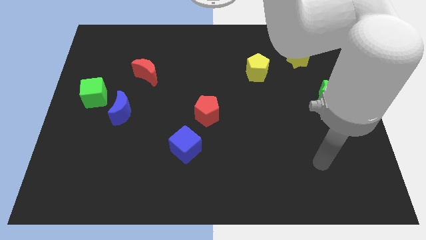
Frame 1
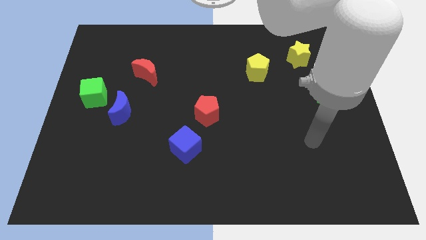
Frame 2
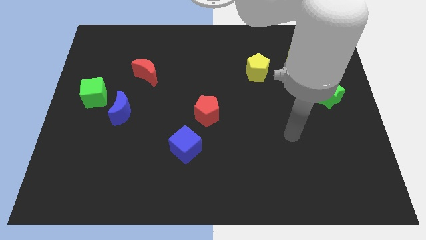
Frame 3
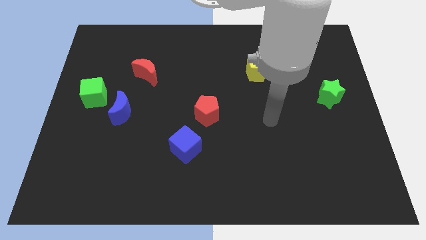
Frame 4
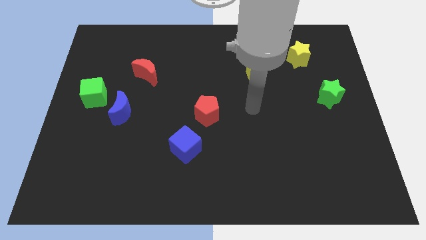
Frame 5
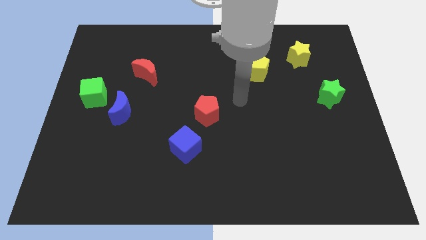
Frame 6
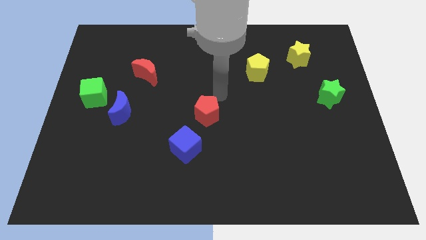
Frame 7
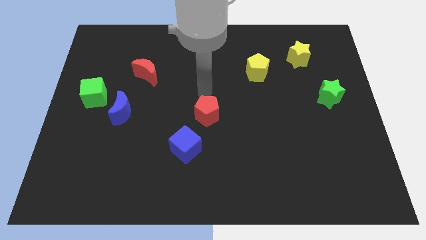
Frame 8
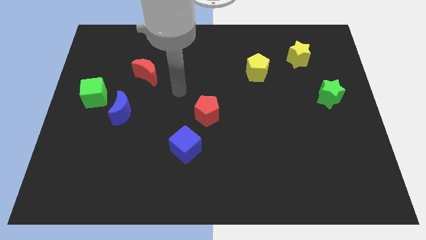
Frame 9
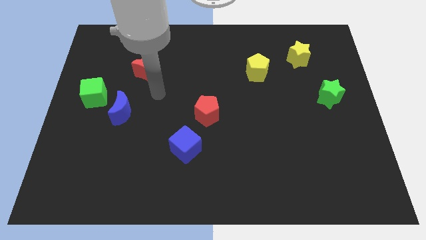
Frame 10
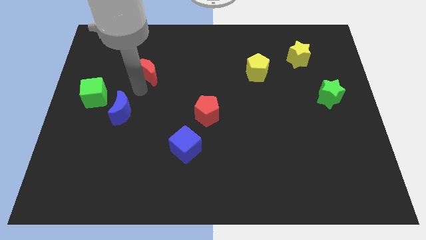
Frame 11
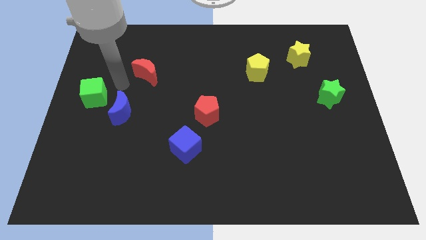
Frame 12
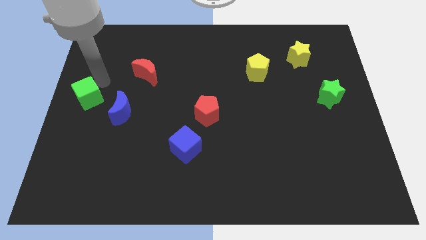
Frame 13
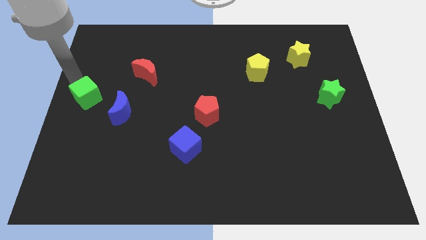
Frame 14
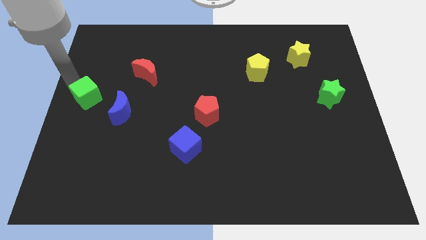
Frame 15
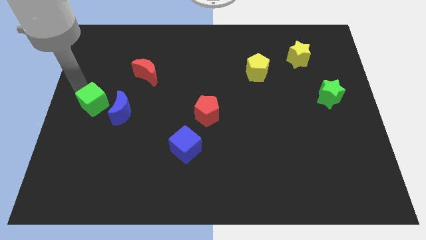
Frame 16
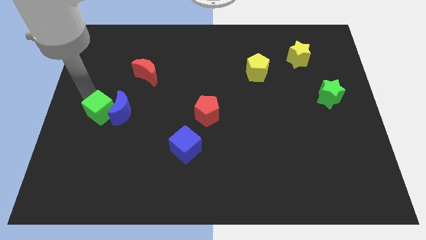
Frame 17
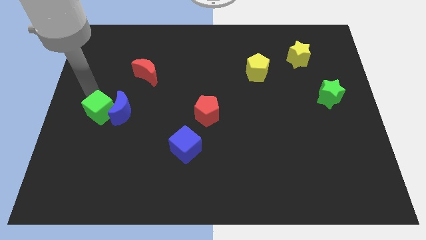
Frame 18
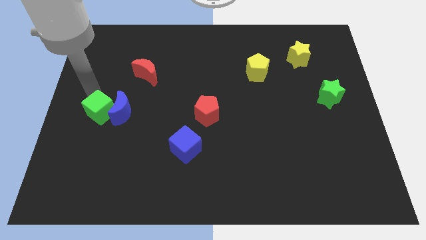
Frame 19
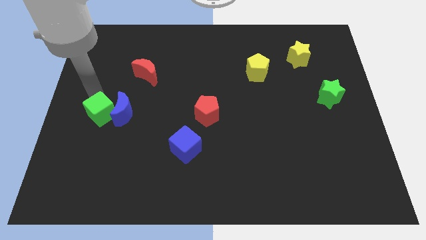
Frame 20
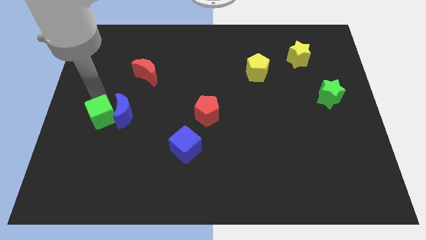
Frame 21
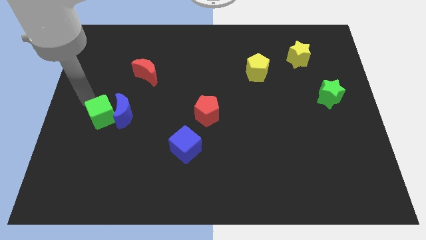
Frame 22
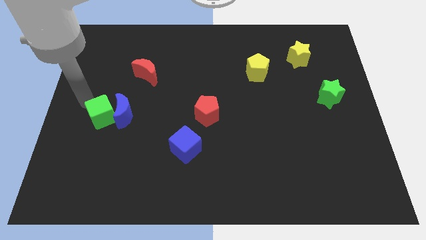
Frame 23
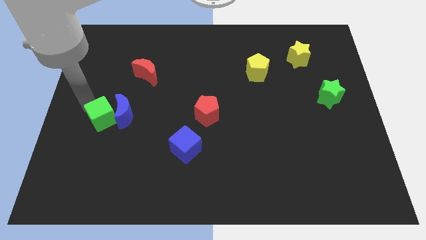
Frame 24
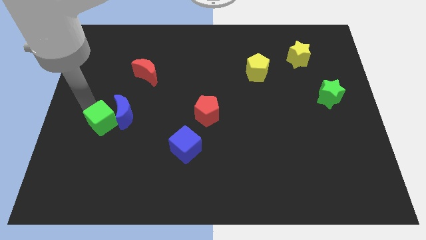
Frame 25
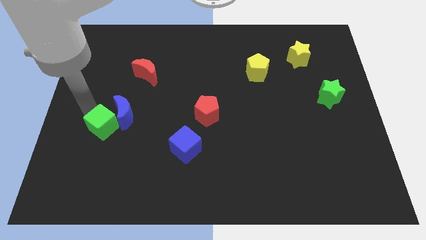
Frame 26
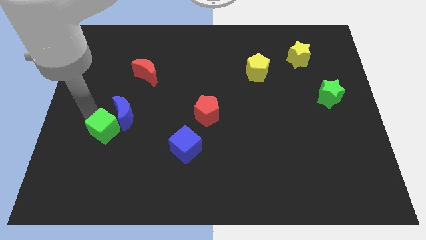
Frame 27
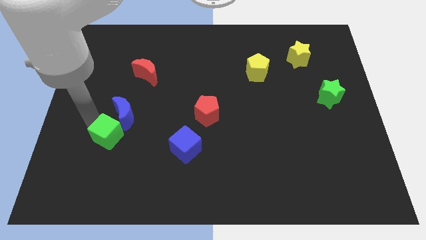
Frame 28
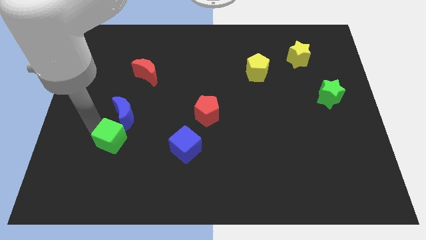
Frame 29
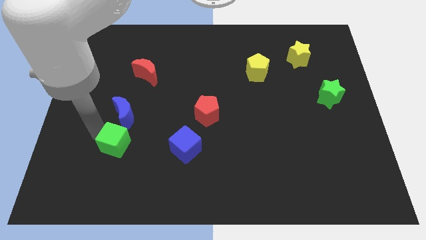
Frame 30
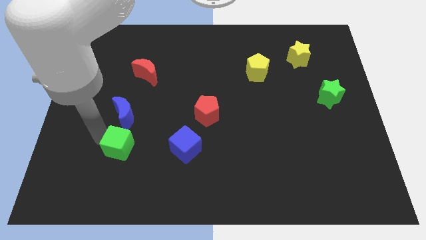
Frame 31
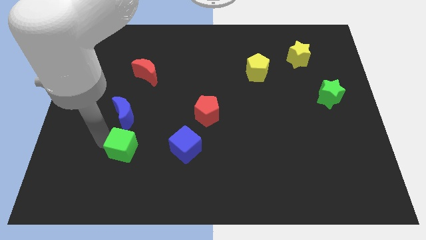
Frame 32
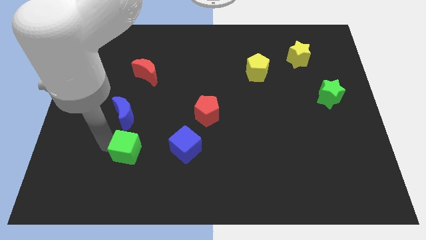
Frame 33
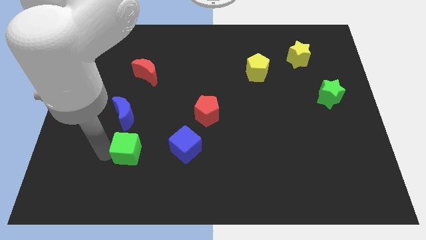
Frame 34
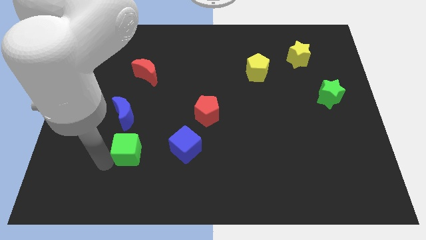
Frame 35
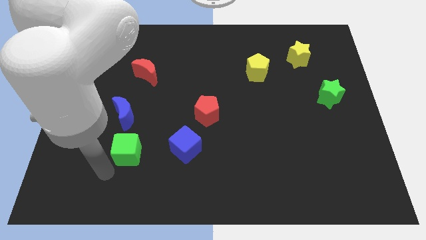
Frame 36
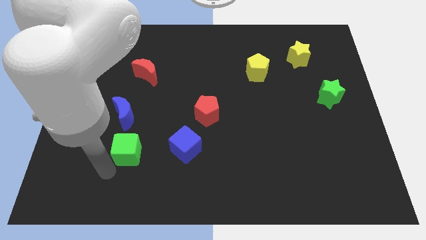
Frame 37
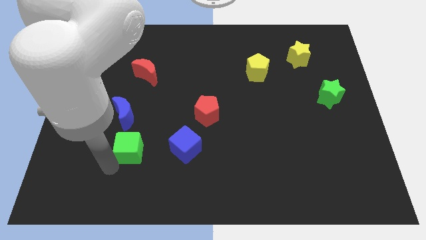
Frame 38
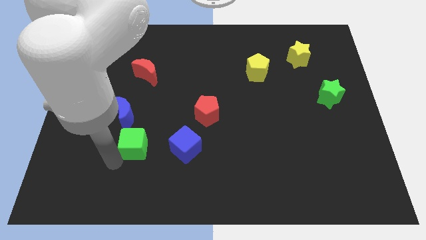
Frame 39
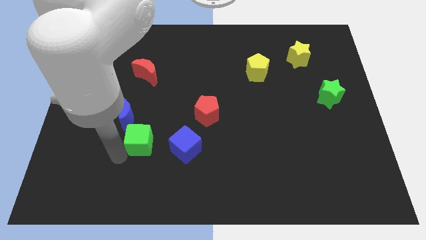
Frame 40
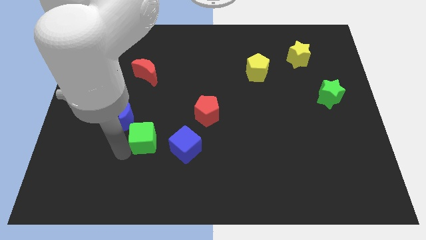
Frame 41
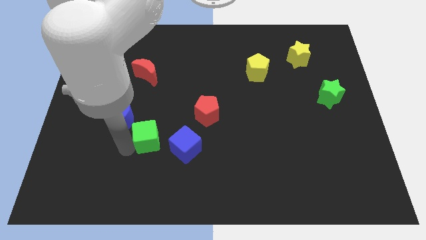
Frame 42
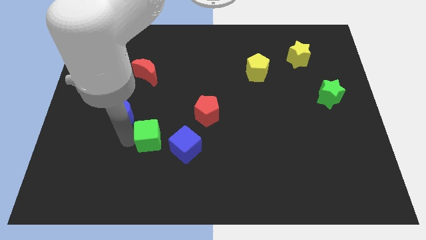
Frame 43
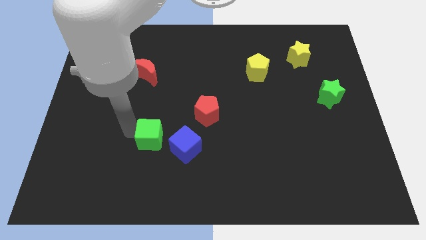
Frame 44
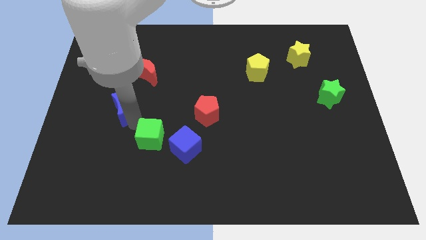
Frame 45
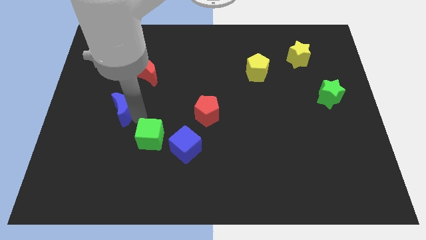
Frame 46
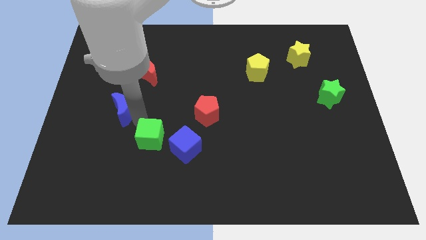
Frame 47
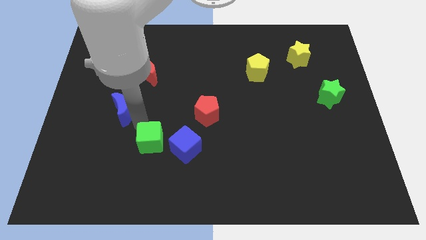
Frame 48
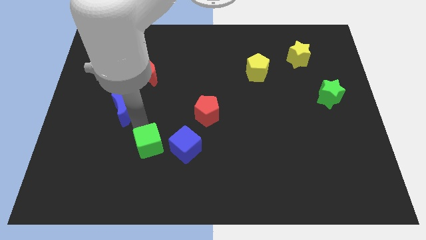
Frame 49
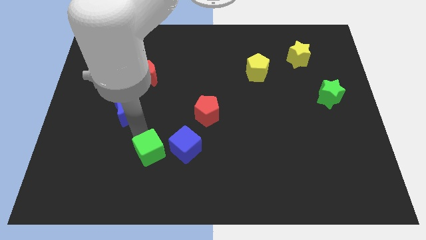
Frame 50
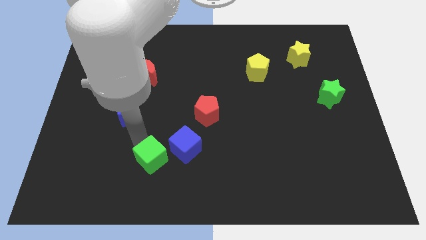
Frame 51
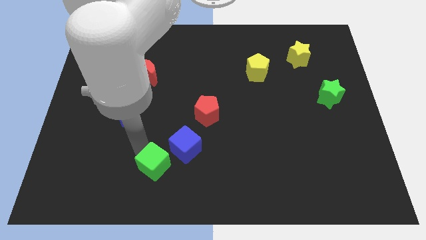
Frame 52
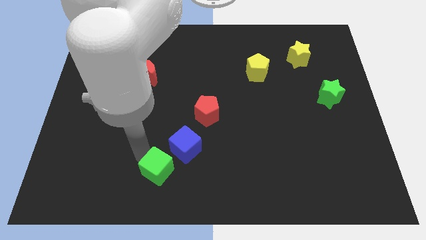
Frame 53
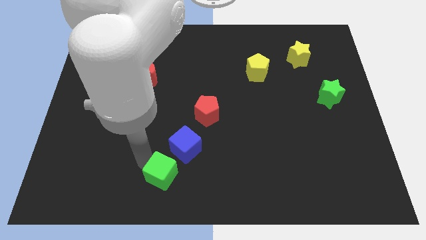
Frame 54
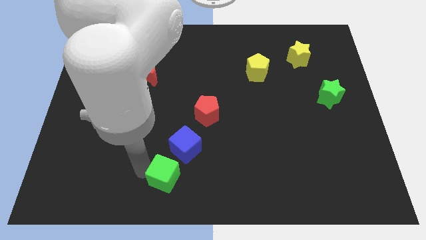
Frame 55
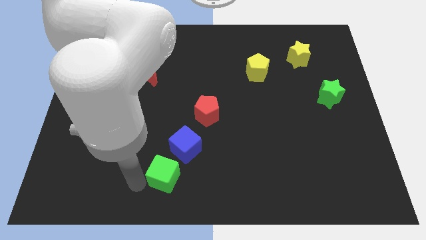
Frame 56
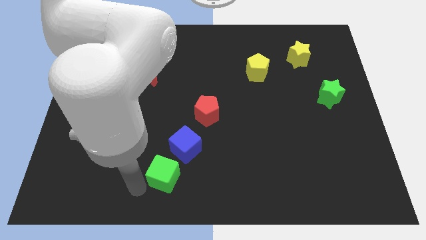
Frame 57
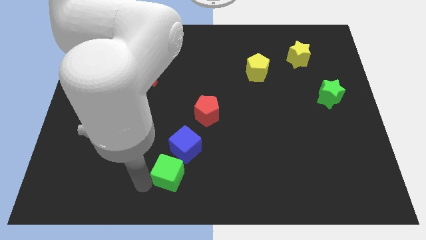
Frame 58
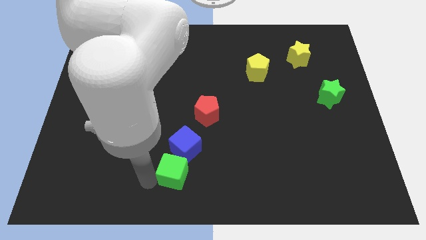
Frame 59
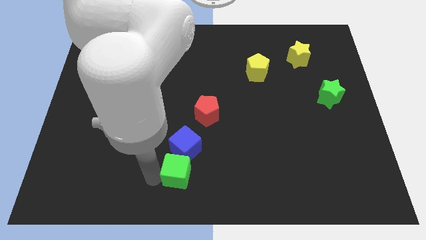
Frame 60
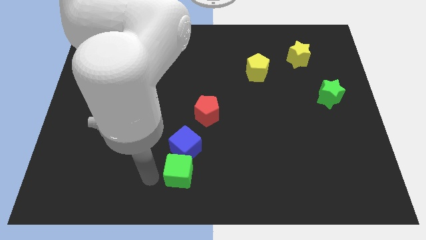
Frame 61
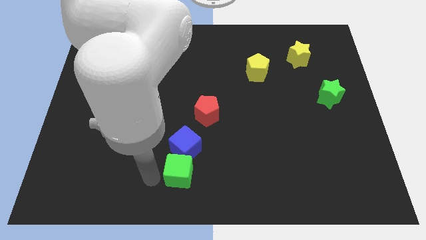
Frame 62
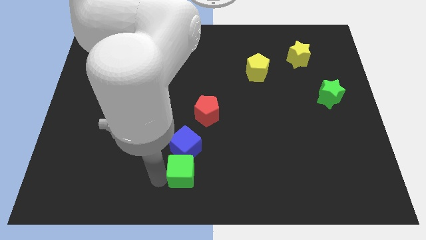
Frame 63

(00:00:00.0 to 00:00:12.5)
put the green cube to the bottom right of the blue cube

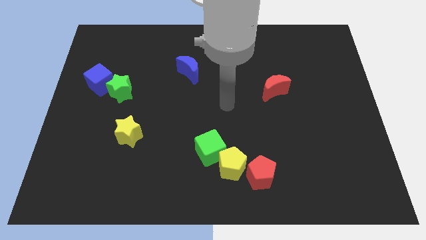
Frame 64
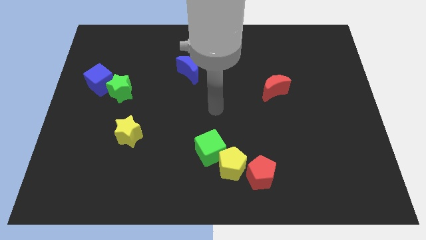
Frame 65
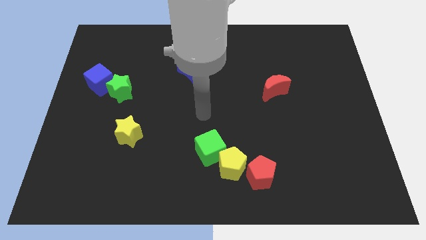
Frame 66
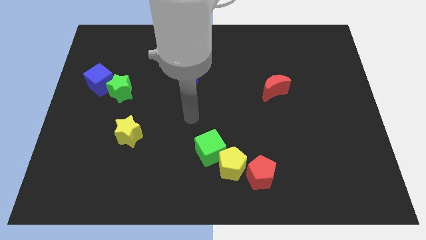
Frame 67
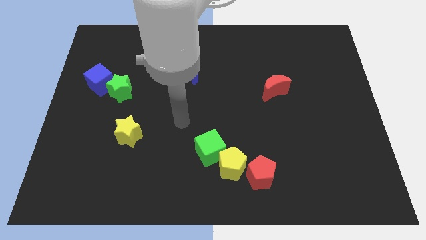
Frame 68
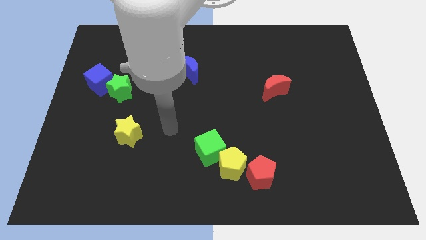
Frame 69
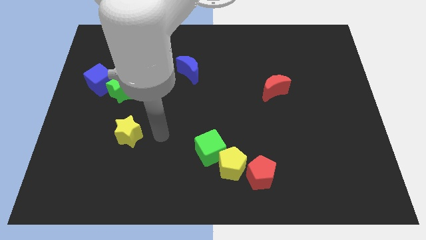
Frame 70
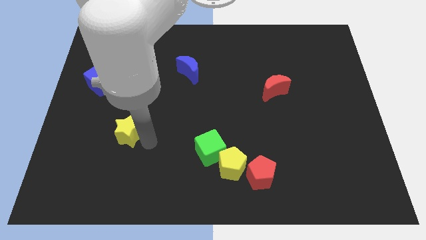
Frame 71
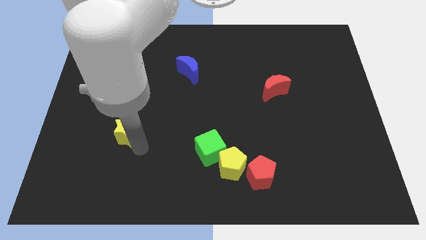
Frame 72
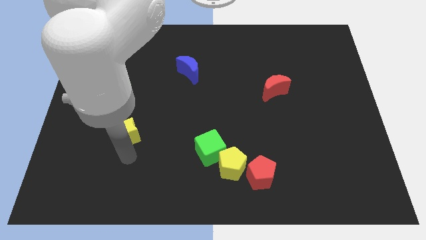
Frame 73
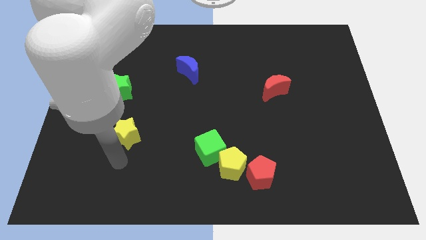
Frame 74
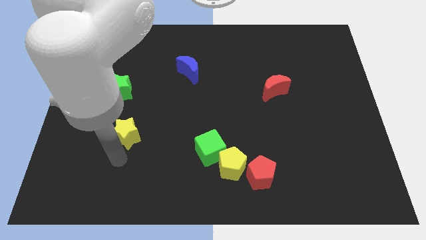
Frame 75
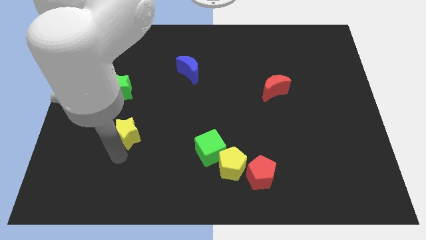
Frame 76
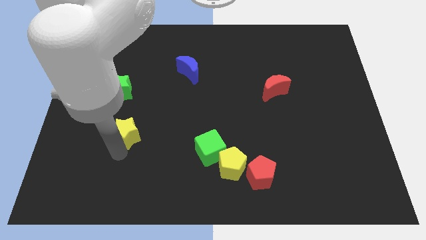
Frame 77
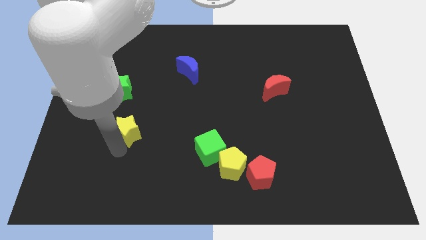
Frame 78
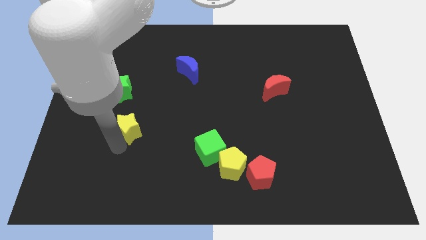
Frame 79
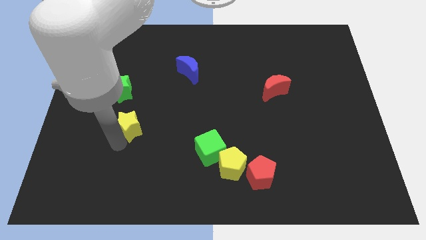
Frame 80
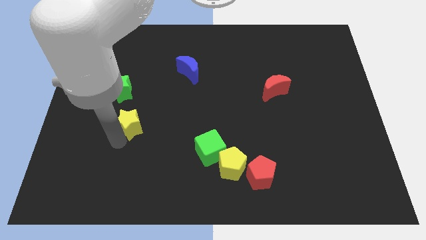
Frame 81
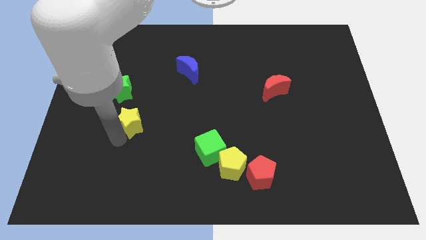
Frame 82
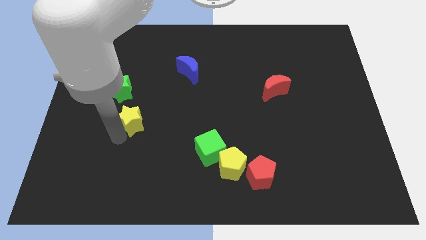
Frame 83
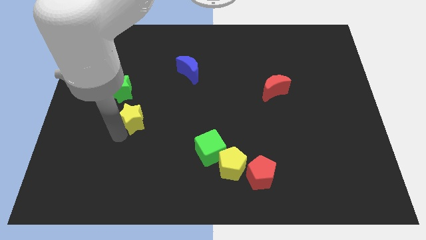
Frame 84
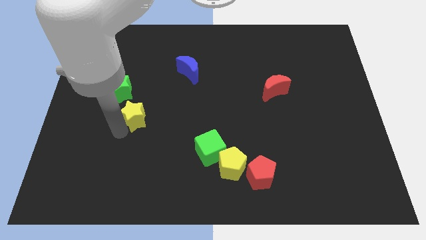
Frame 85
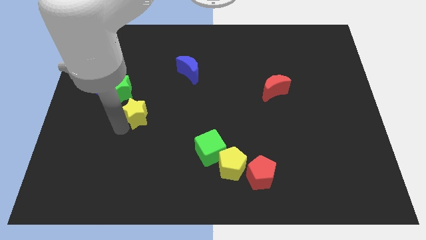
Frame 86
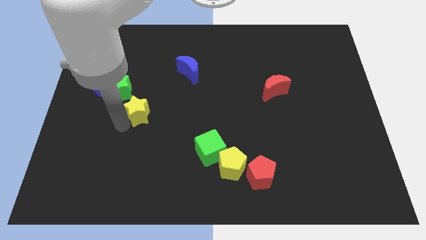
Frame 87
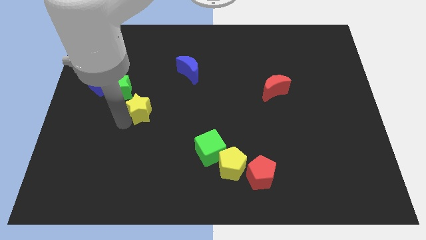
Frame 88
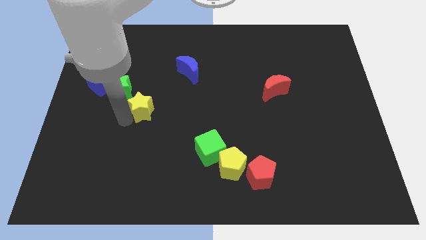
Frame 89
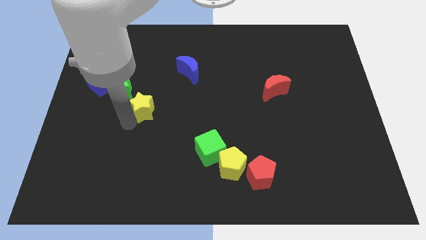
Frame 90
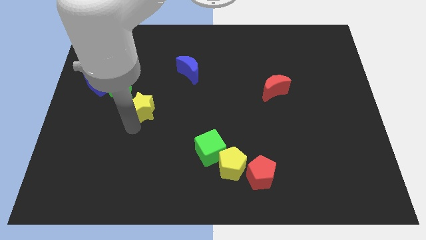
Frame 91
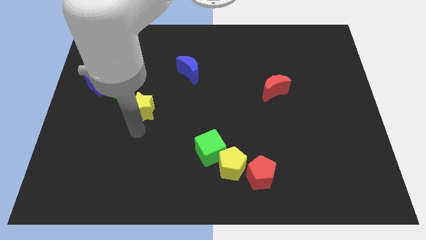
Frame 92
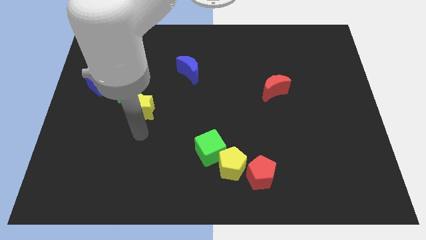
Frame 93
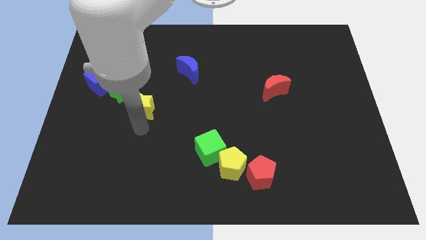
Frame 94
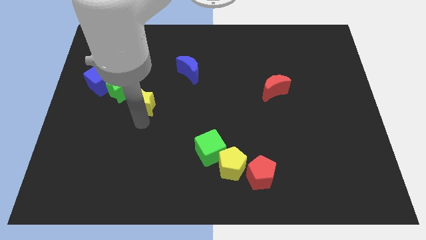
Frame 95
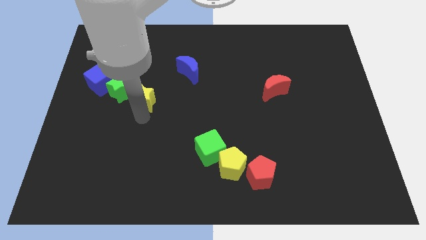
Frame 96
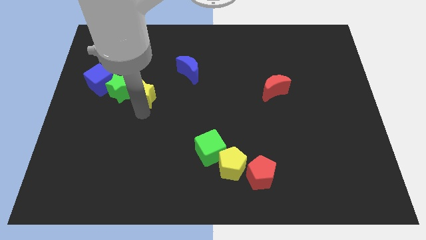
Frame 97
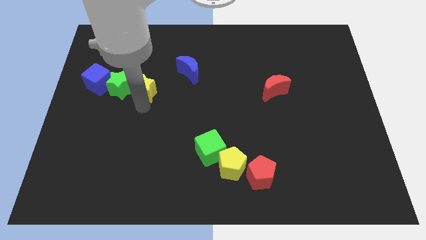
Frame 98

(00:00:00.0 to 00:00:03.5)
slide the yellow star to the top right side of the green star
